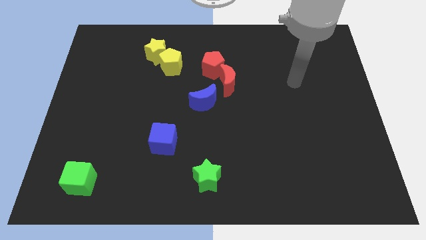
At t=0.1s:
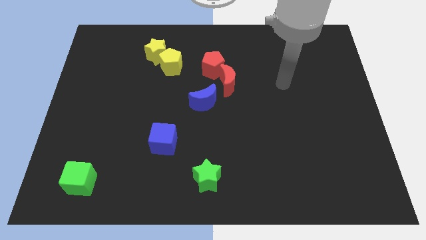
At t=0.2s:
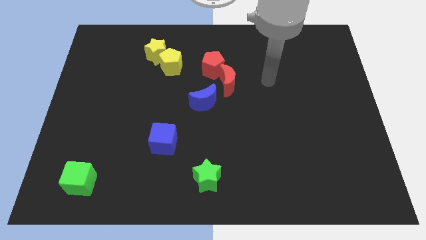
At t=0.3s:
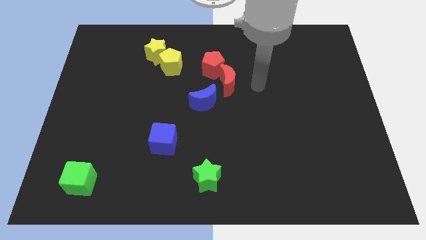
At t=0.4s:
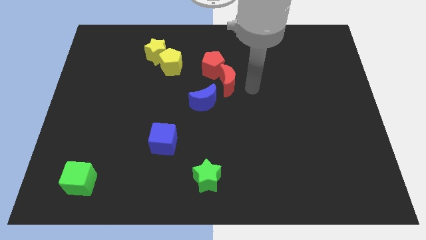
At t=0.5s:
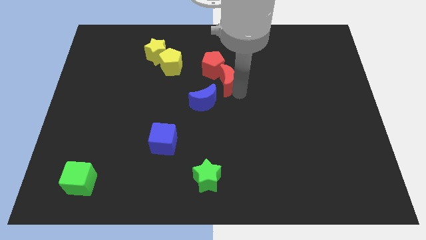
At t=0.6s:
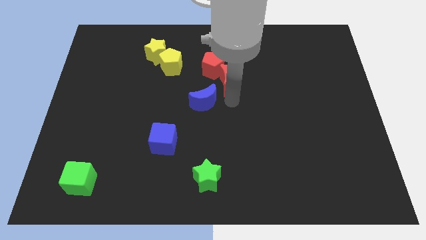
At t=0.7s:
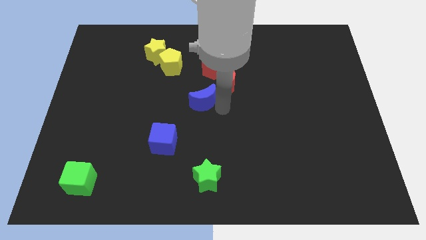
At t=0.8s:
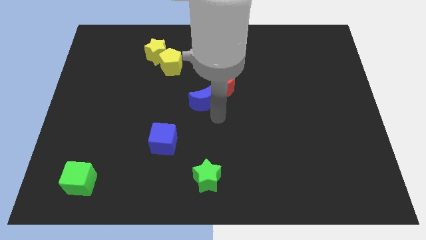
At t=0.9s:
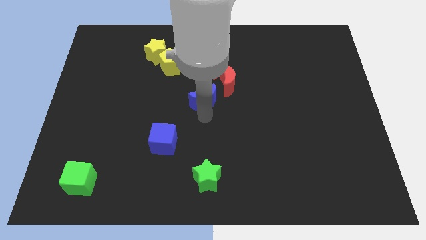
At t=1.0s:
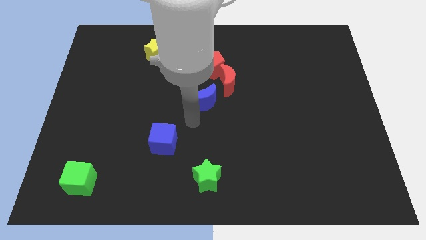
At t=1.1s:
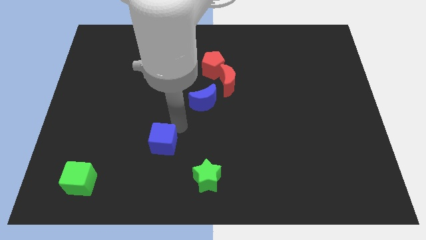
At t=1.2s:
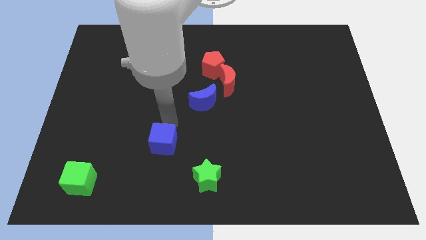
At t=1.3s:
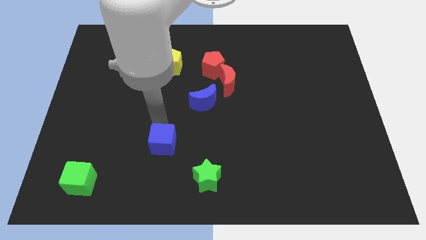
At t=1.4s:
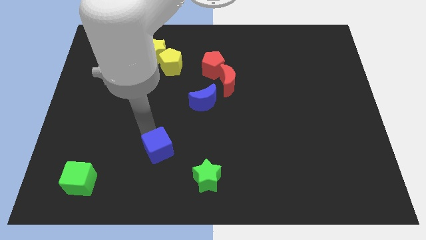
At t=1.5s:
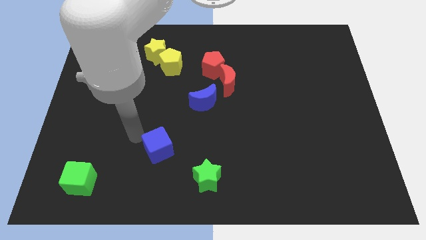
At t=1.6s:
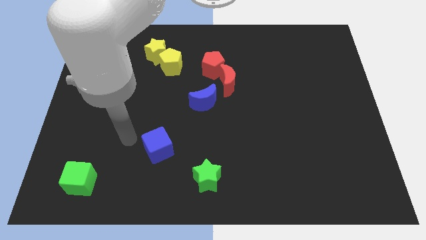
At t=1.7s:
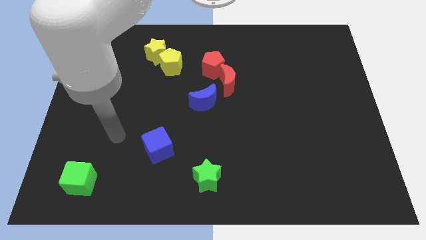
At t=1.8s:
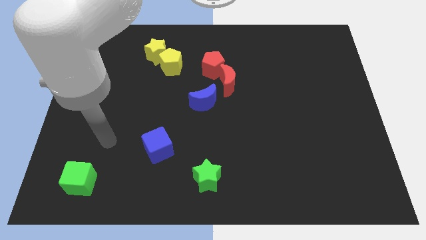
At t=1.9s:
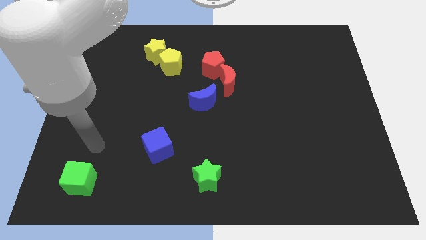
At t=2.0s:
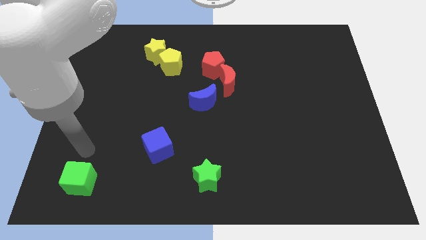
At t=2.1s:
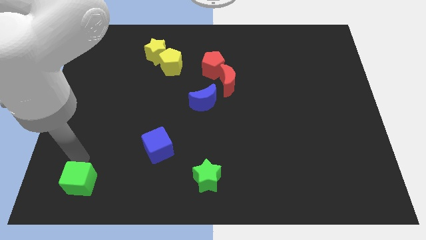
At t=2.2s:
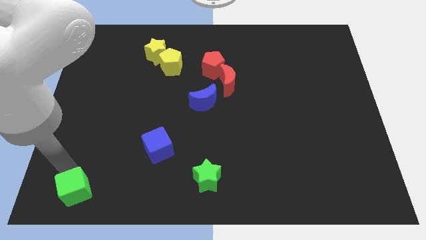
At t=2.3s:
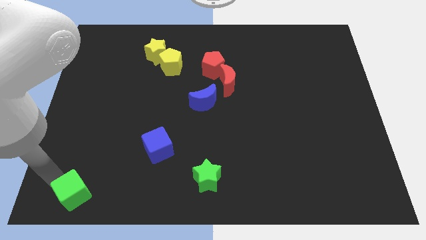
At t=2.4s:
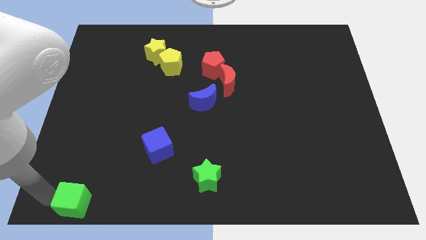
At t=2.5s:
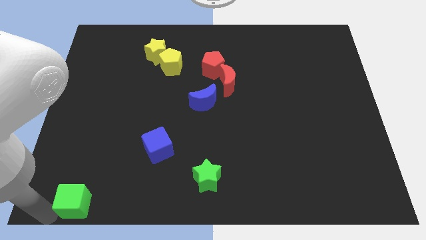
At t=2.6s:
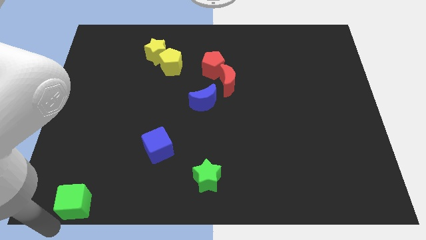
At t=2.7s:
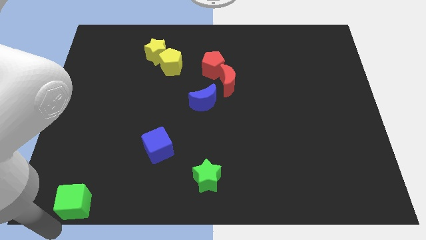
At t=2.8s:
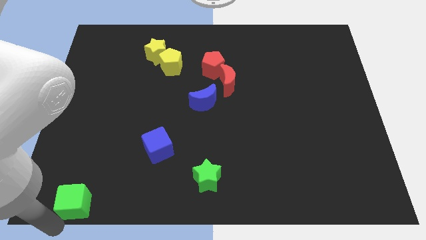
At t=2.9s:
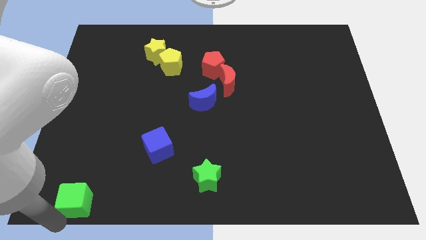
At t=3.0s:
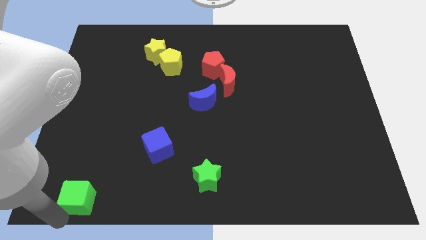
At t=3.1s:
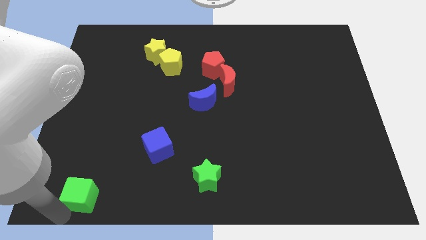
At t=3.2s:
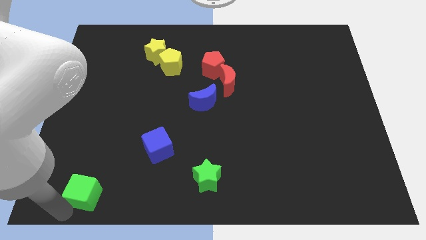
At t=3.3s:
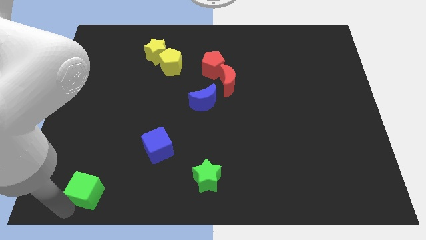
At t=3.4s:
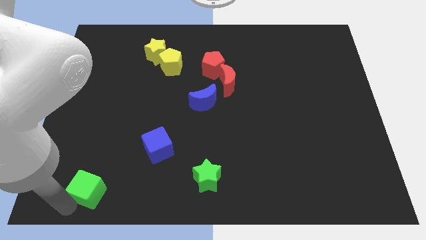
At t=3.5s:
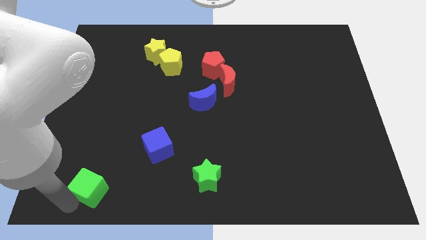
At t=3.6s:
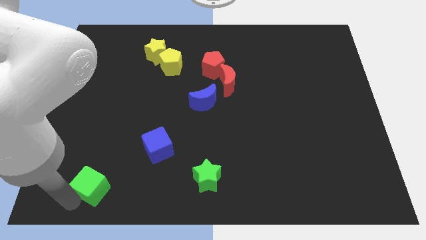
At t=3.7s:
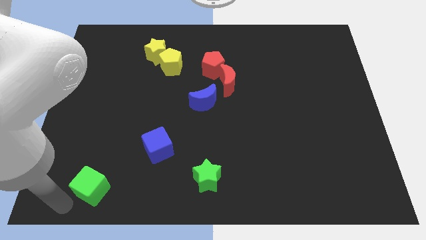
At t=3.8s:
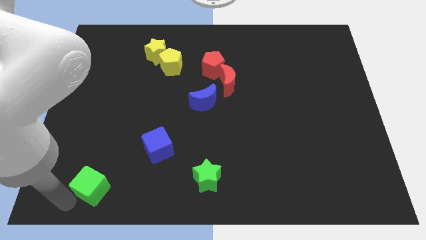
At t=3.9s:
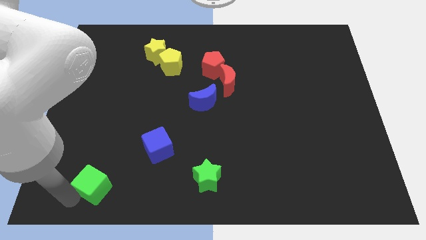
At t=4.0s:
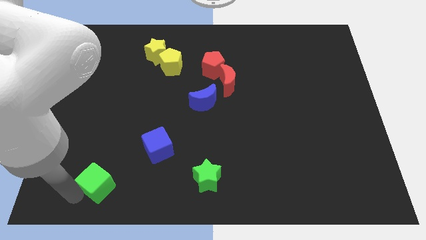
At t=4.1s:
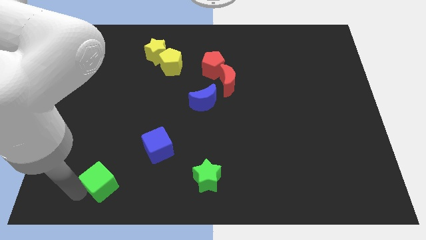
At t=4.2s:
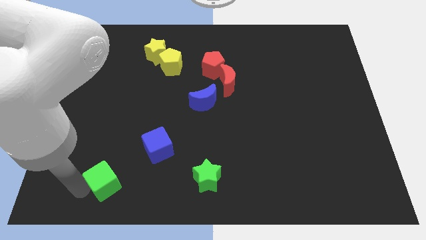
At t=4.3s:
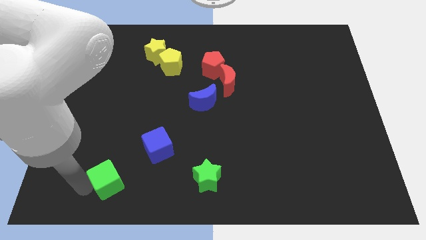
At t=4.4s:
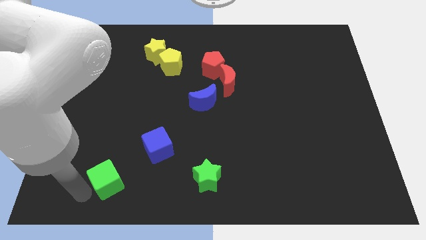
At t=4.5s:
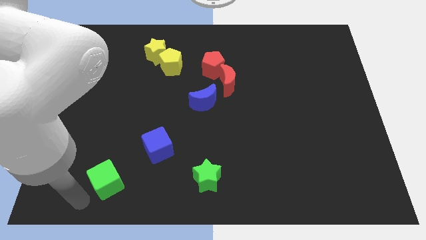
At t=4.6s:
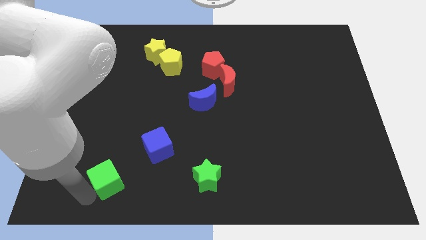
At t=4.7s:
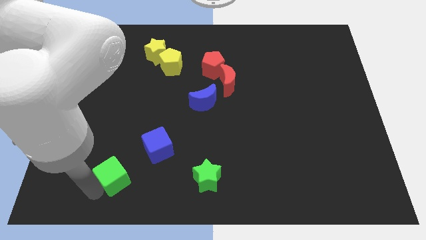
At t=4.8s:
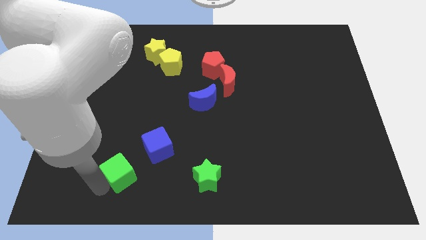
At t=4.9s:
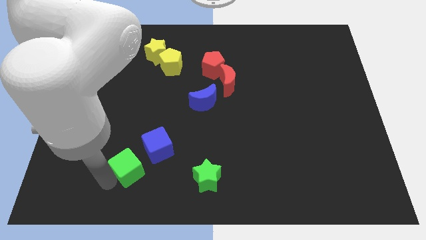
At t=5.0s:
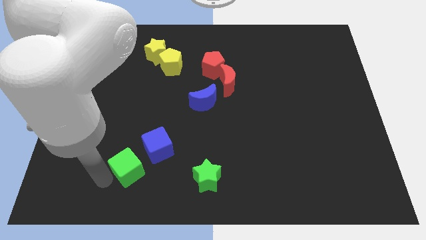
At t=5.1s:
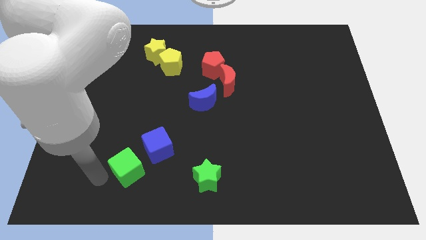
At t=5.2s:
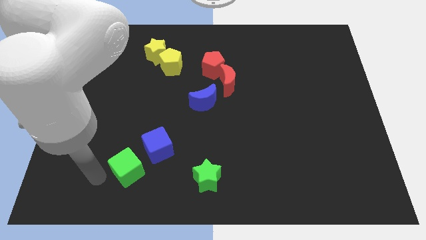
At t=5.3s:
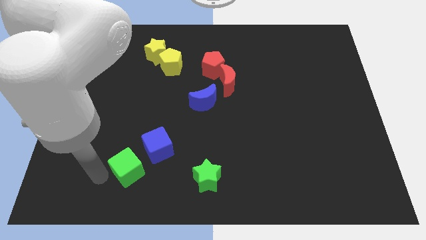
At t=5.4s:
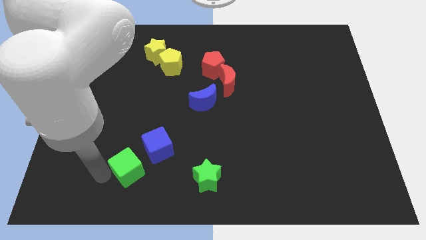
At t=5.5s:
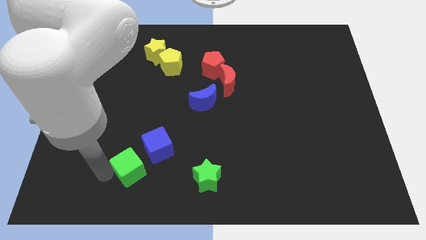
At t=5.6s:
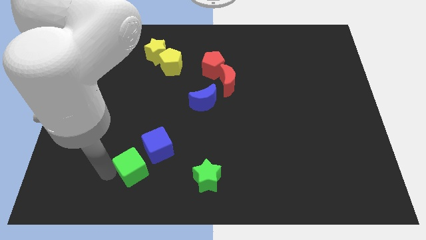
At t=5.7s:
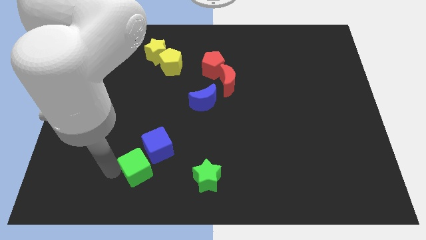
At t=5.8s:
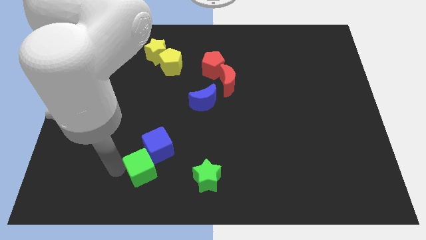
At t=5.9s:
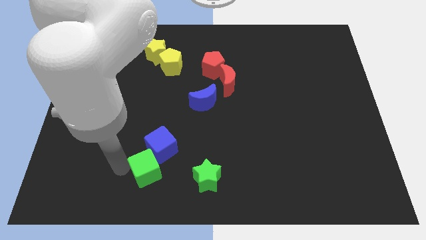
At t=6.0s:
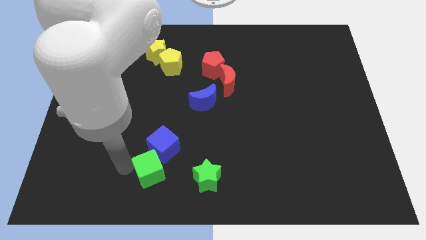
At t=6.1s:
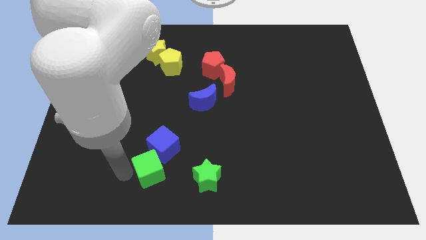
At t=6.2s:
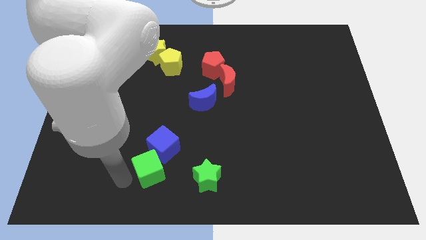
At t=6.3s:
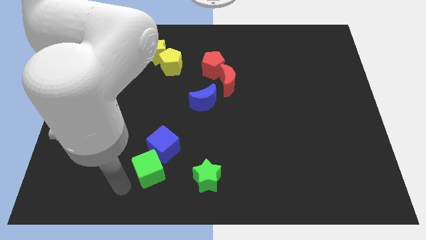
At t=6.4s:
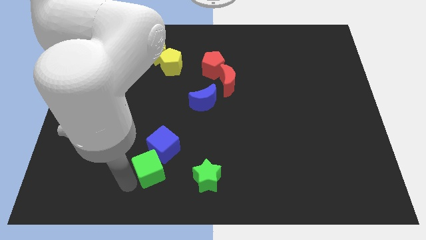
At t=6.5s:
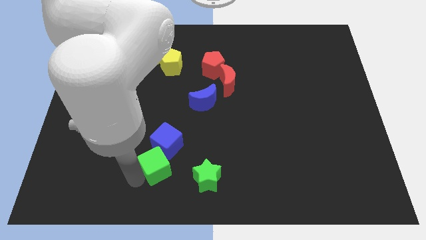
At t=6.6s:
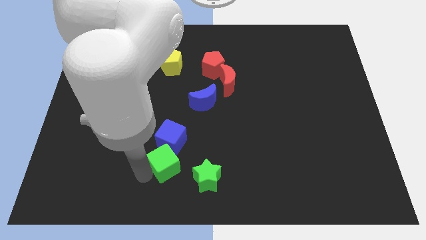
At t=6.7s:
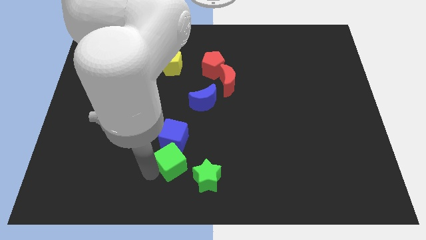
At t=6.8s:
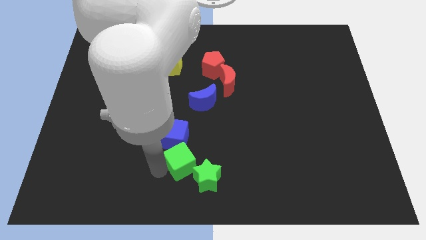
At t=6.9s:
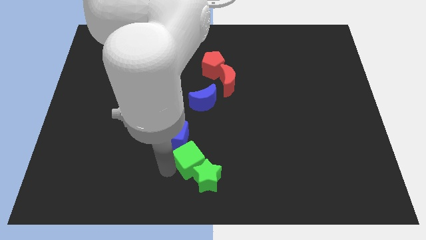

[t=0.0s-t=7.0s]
move the green cube to the top of the green star
